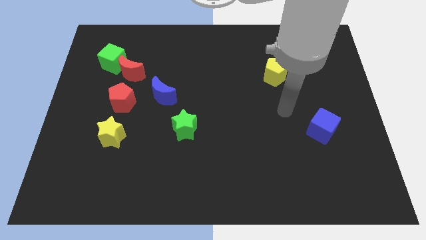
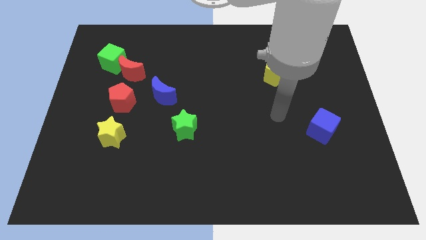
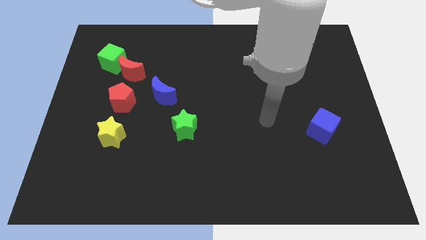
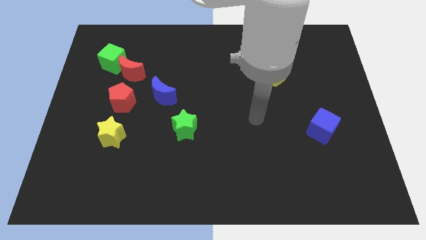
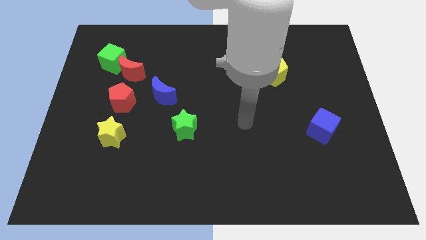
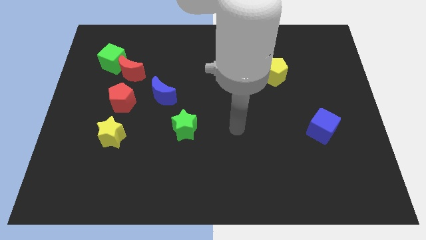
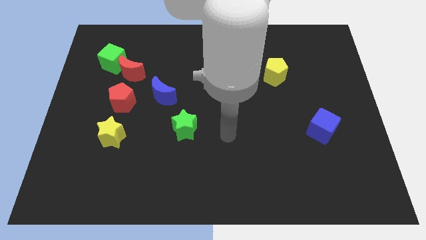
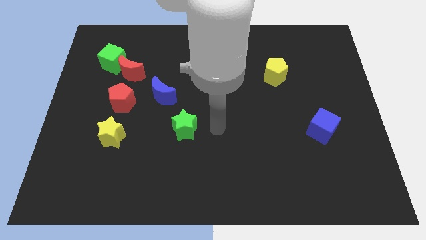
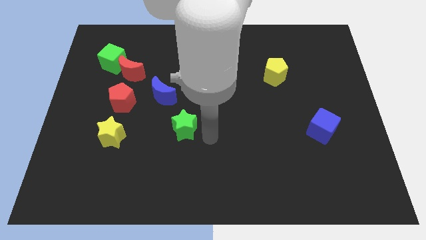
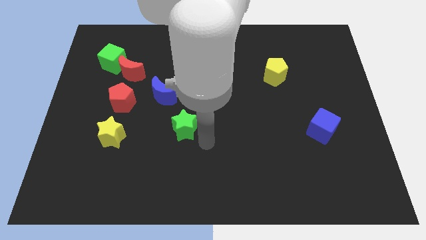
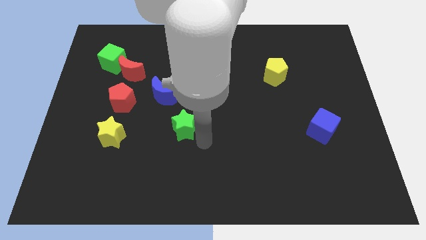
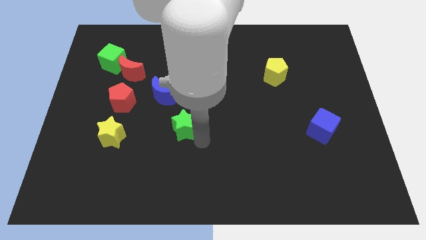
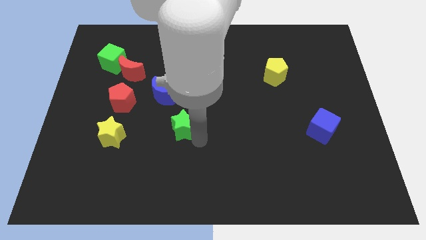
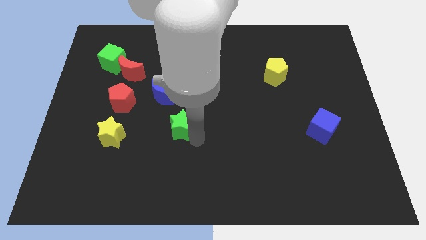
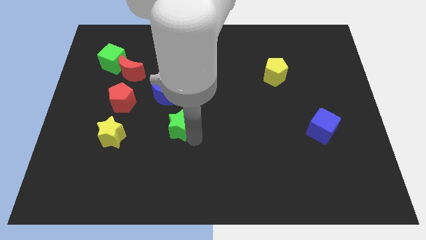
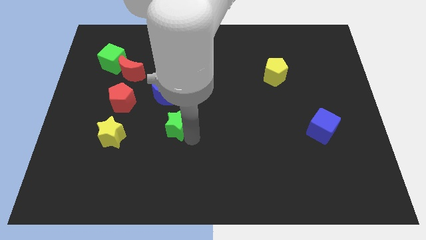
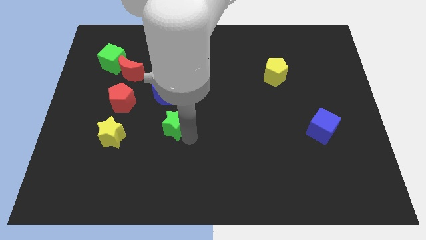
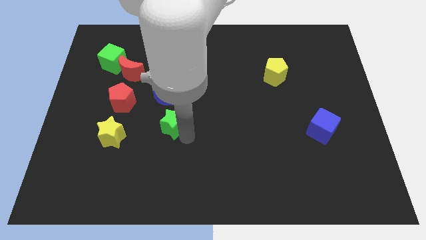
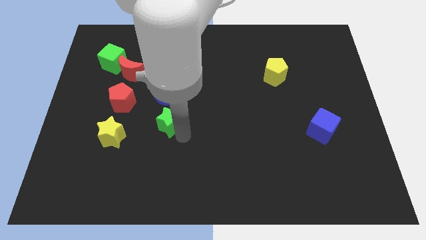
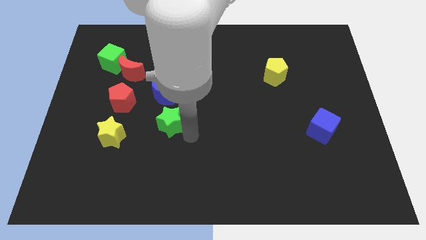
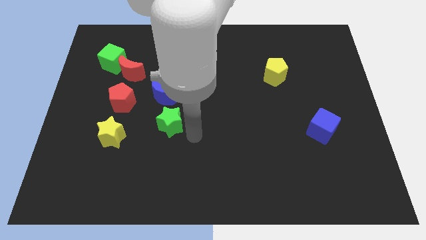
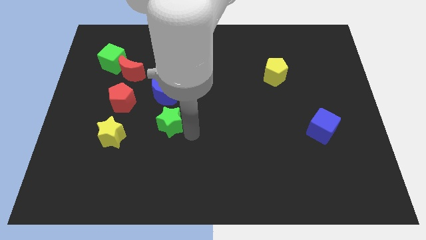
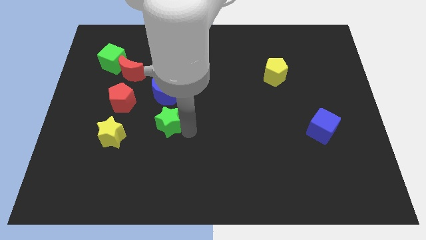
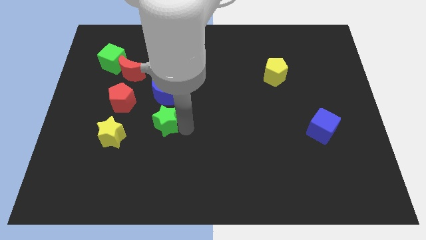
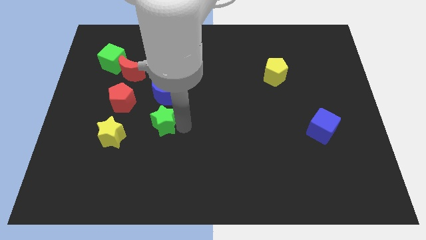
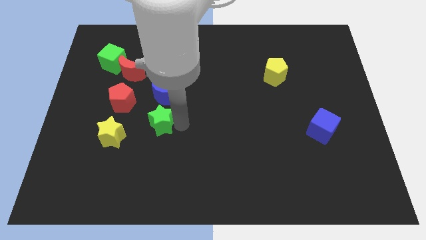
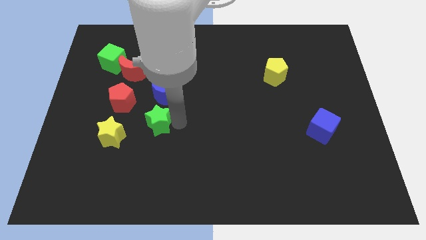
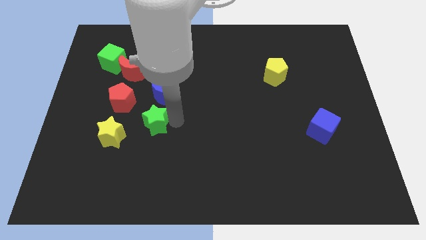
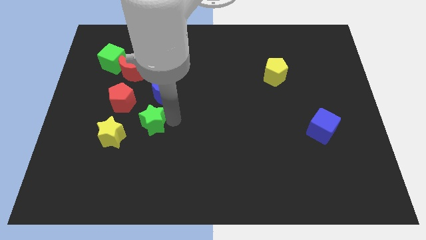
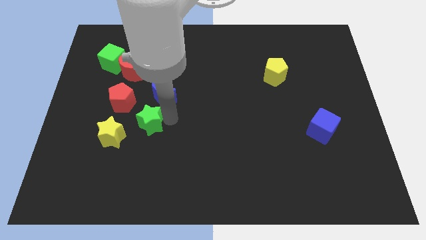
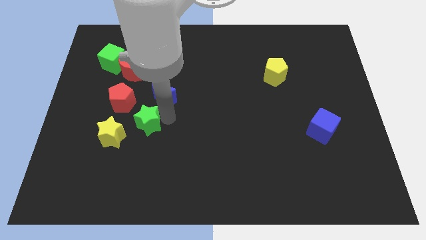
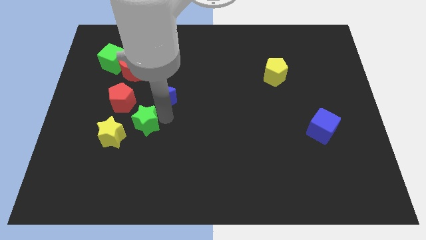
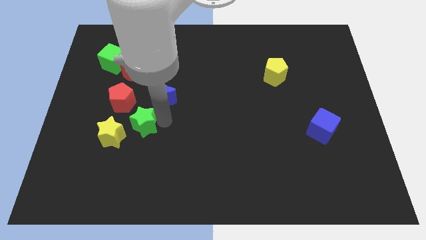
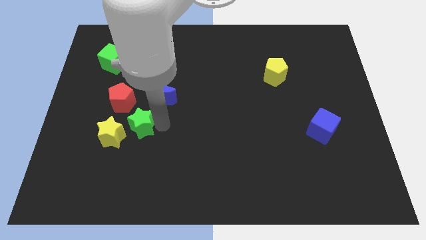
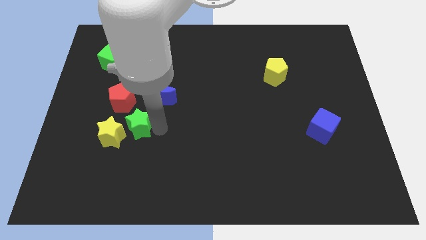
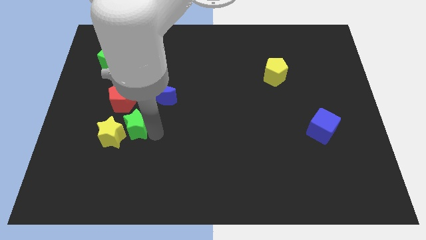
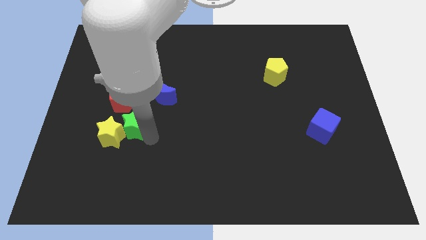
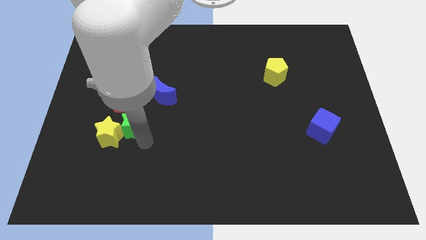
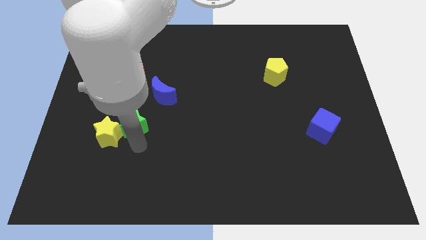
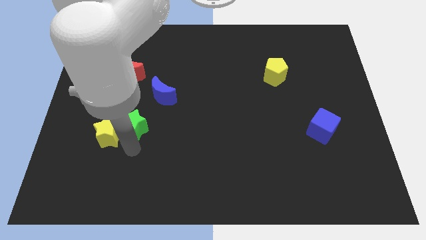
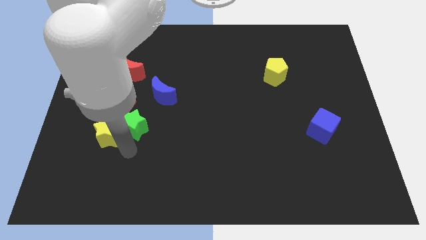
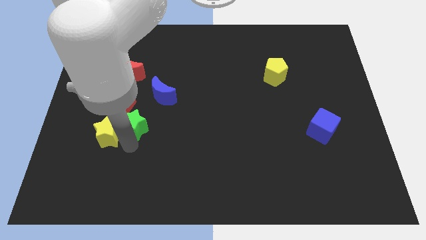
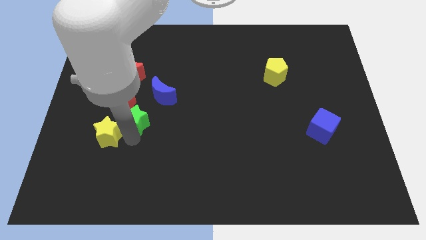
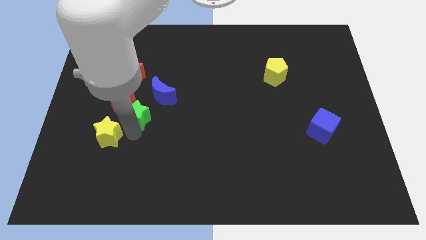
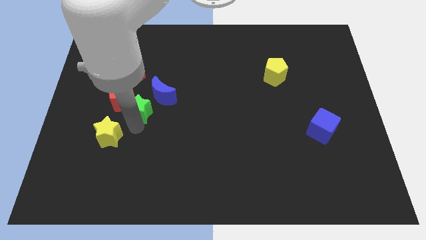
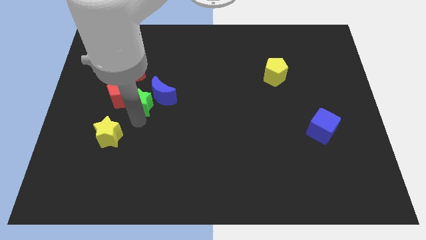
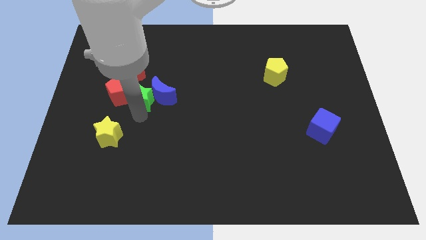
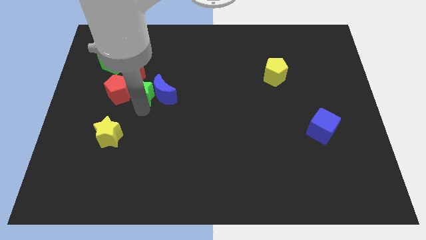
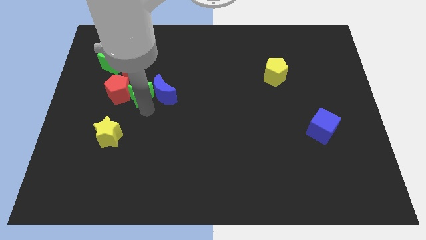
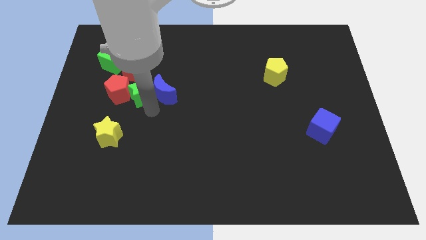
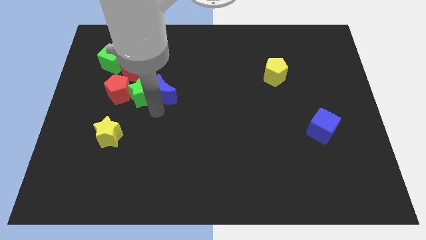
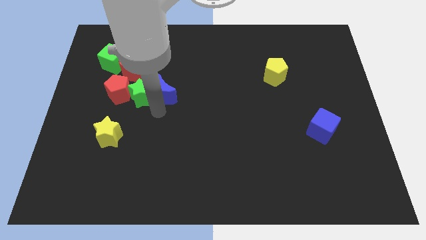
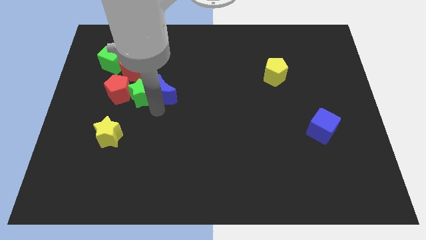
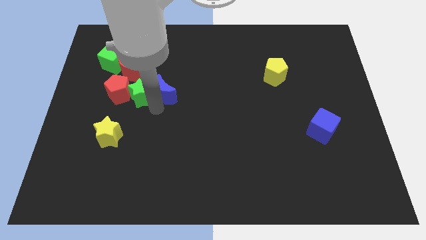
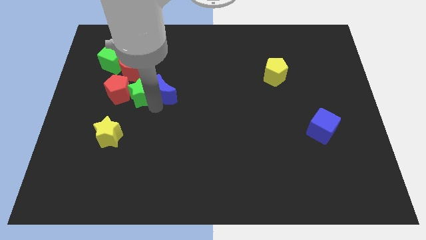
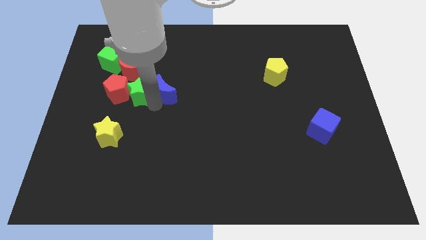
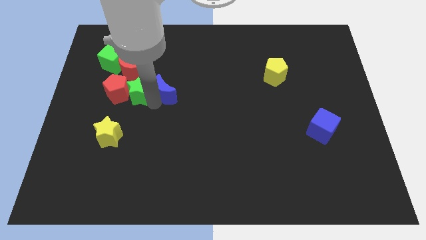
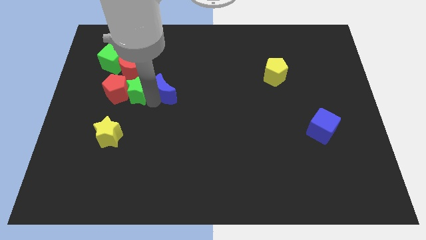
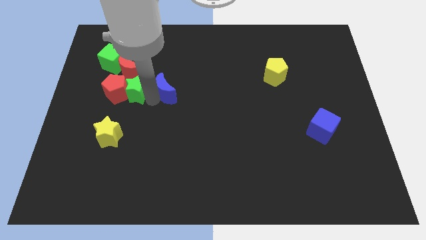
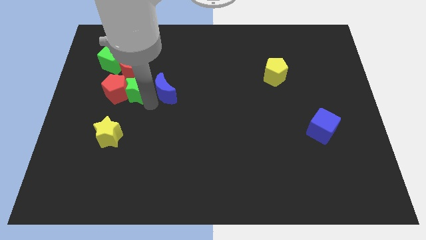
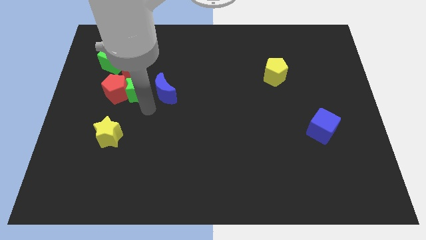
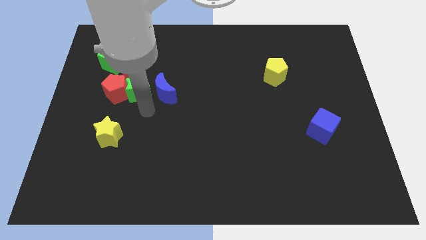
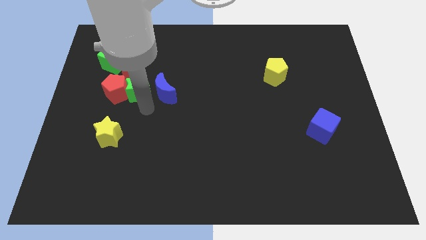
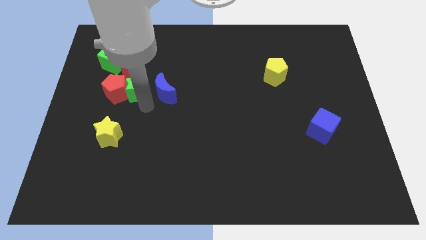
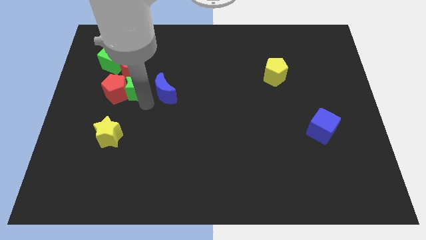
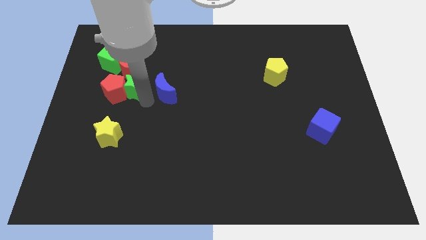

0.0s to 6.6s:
slide the green star next to the red moon

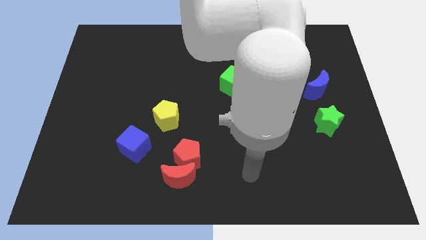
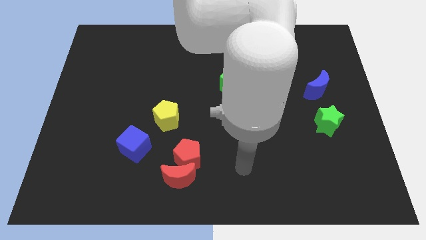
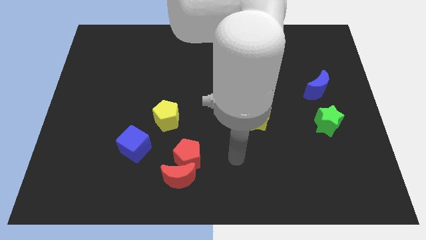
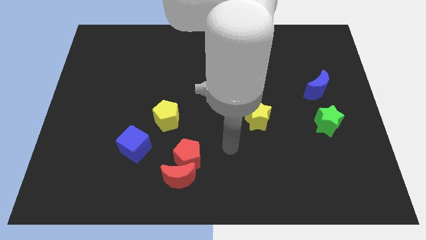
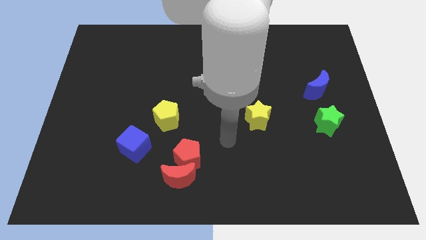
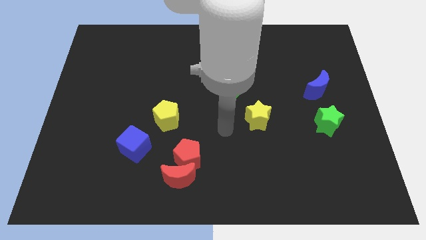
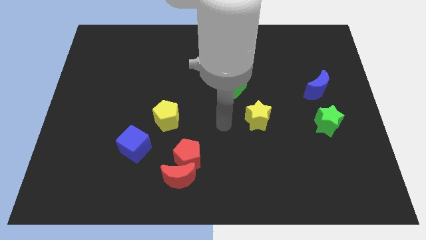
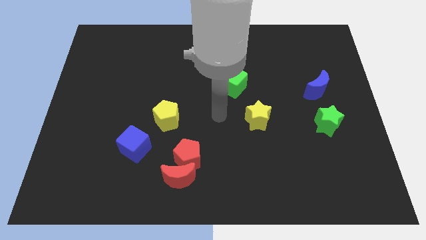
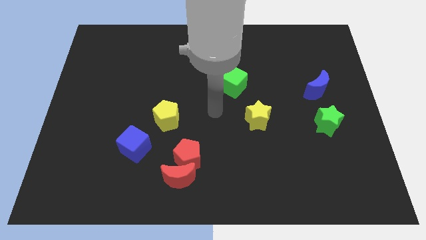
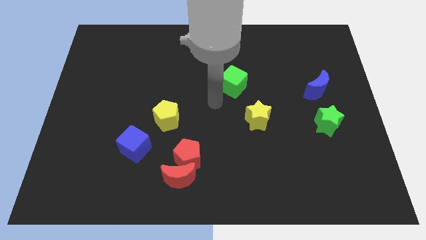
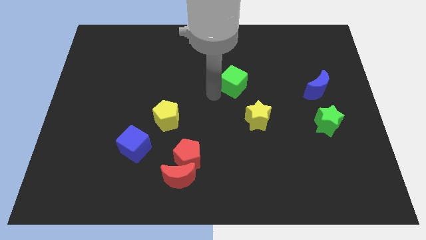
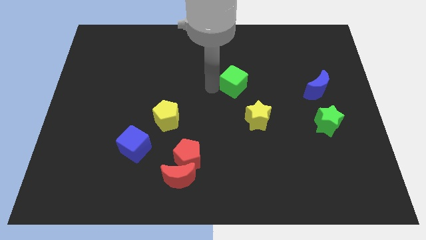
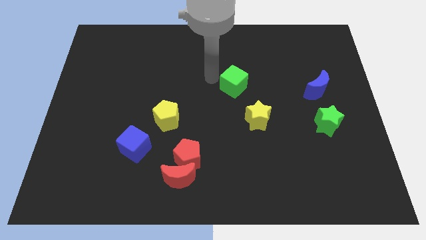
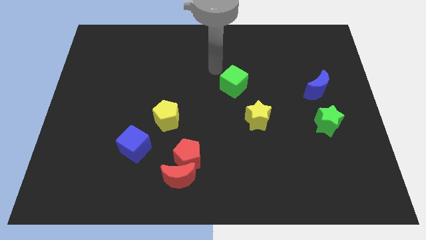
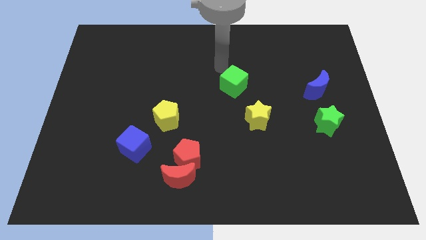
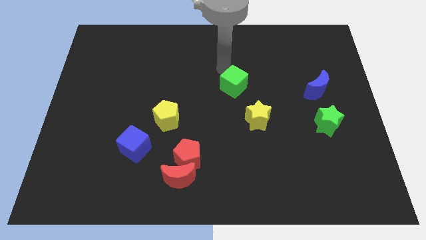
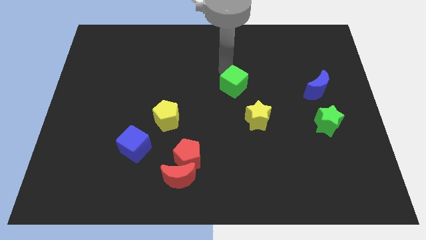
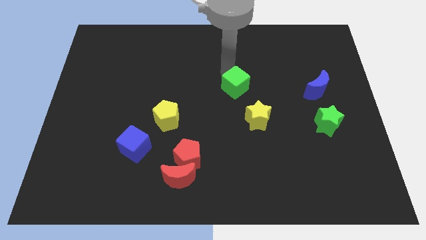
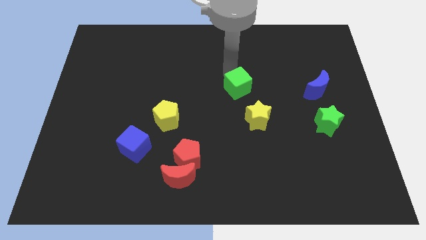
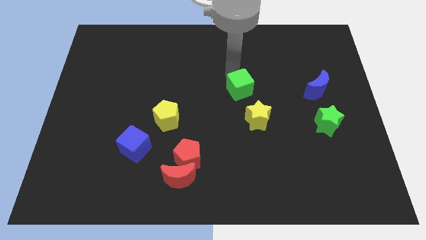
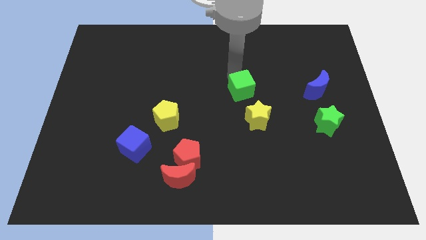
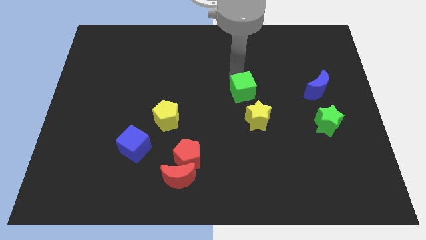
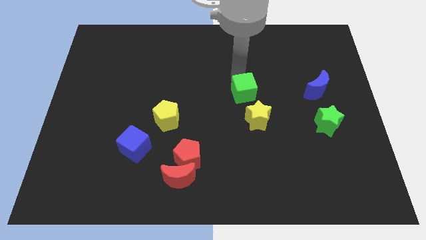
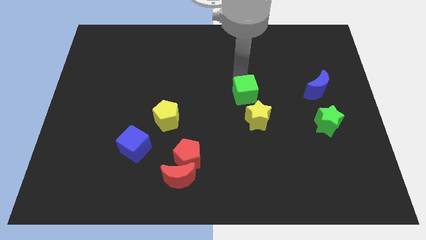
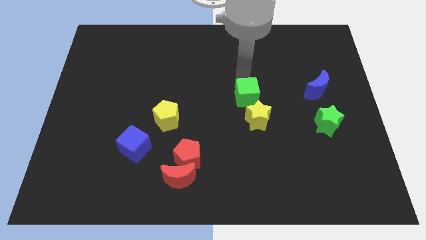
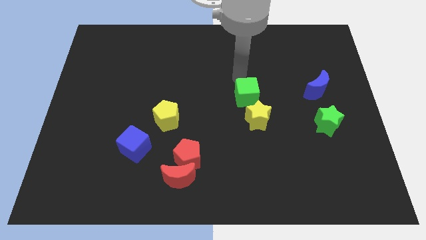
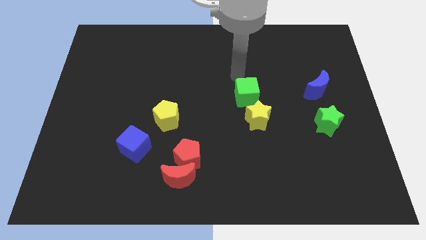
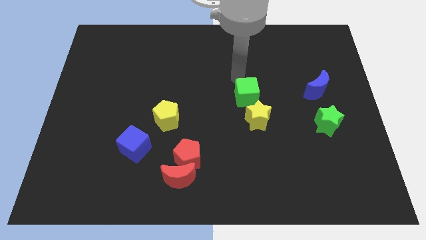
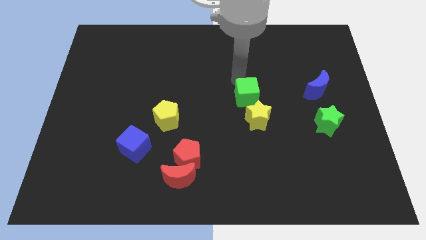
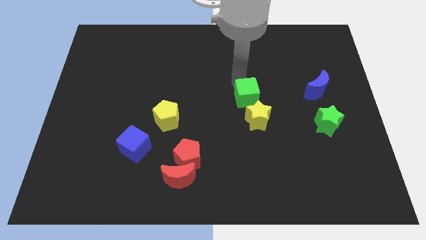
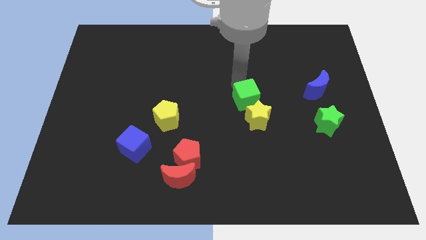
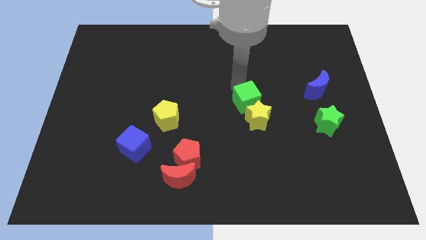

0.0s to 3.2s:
put the green cube to the yellow star
